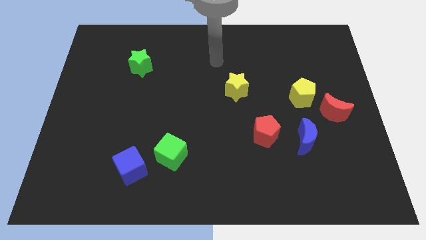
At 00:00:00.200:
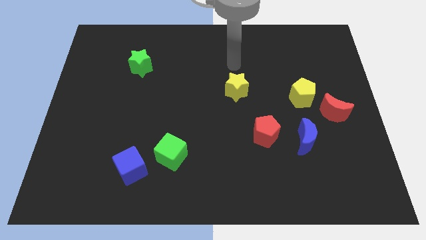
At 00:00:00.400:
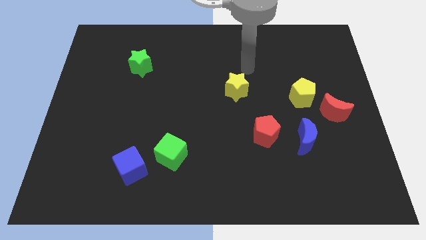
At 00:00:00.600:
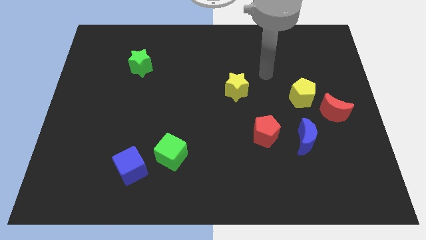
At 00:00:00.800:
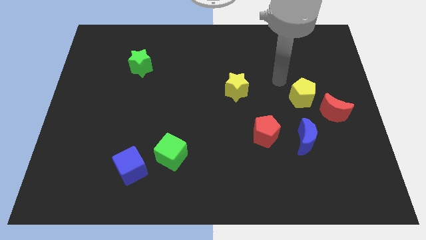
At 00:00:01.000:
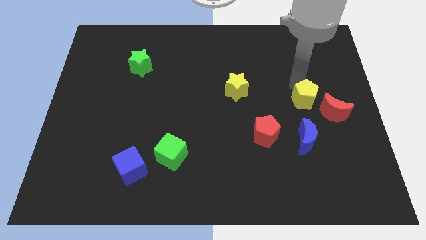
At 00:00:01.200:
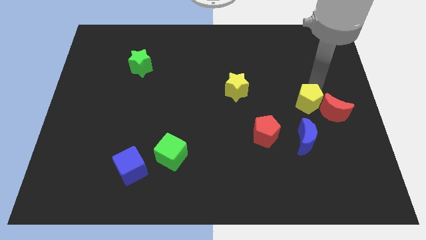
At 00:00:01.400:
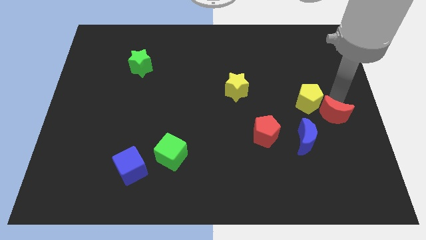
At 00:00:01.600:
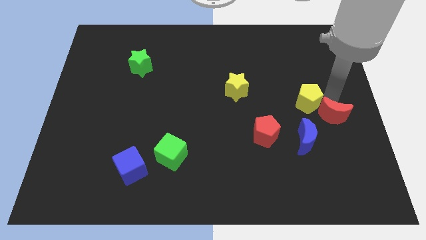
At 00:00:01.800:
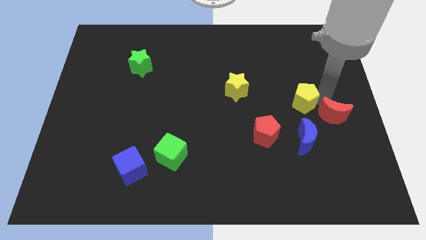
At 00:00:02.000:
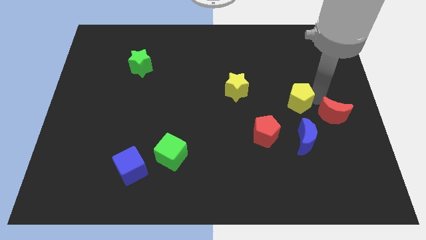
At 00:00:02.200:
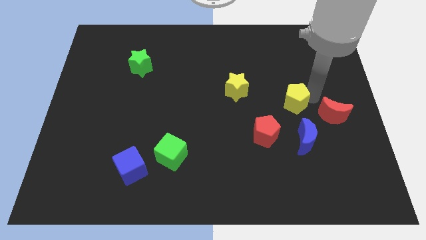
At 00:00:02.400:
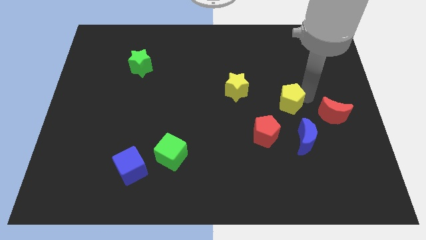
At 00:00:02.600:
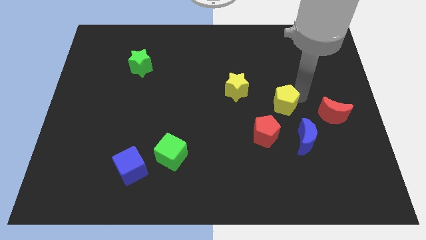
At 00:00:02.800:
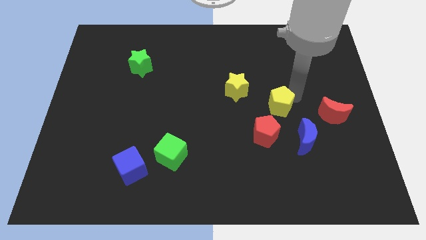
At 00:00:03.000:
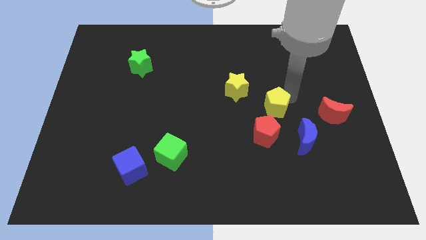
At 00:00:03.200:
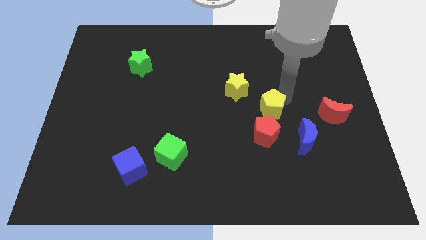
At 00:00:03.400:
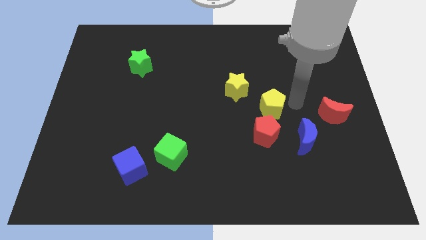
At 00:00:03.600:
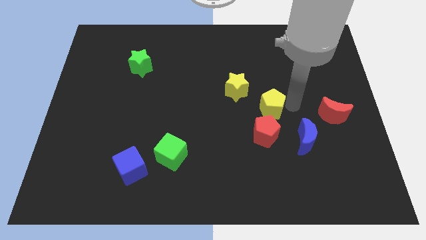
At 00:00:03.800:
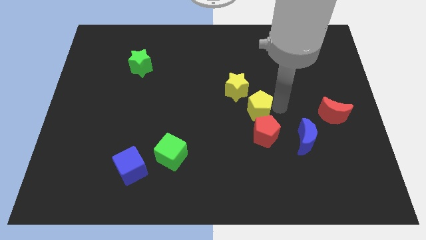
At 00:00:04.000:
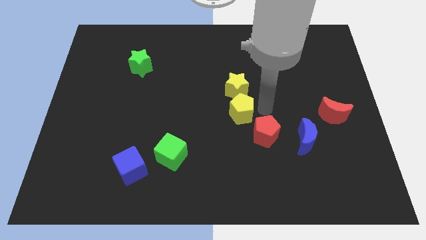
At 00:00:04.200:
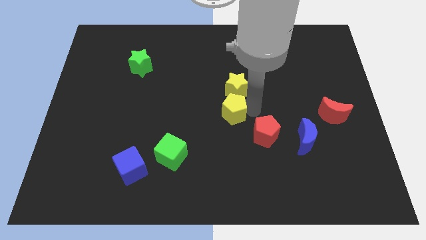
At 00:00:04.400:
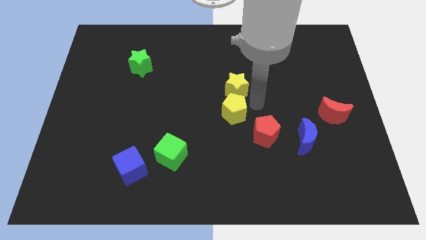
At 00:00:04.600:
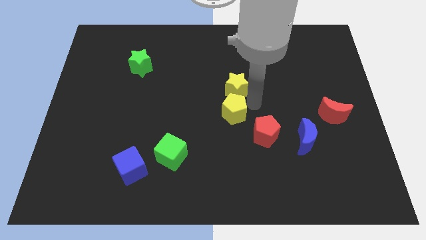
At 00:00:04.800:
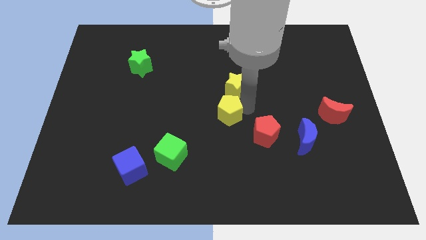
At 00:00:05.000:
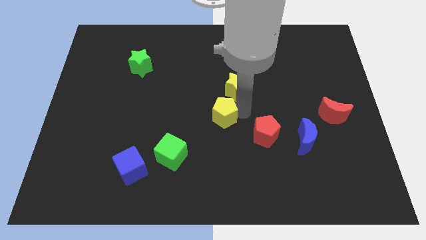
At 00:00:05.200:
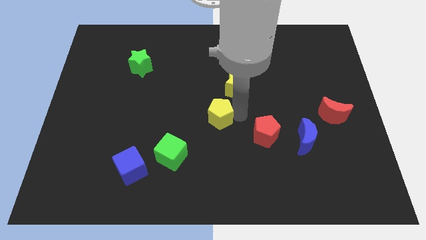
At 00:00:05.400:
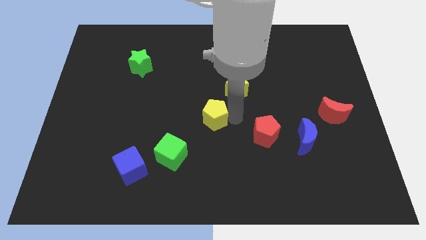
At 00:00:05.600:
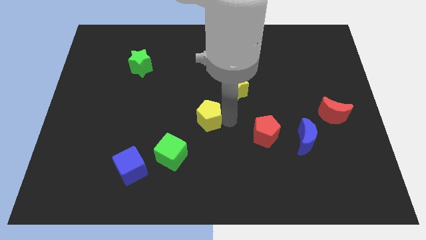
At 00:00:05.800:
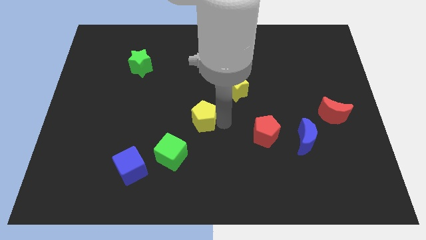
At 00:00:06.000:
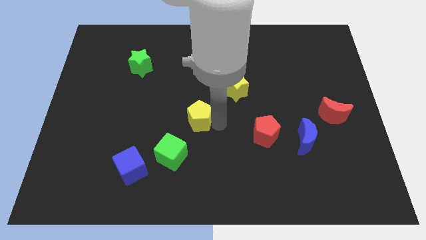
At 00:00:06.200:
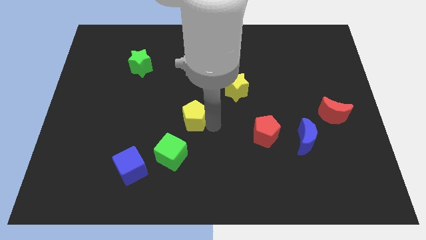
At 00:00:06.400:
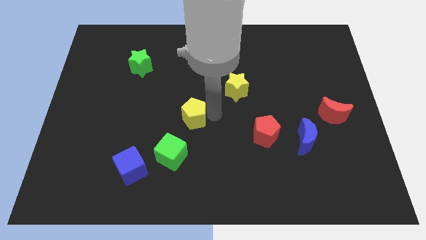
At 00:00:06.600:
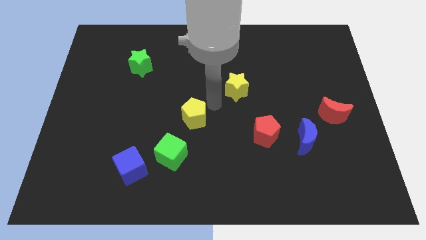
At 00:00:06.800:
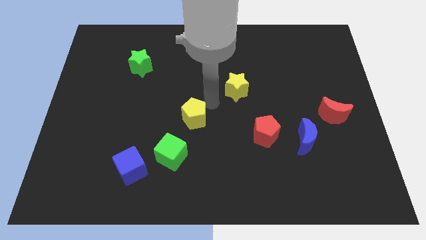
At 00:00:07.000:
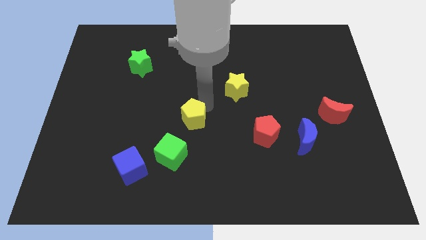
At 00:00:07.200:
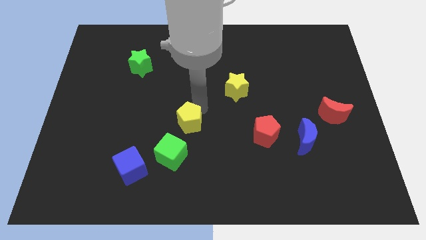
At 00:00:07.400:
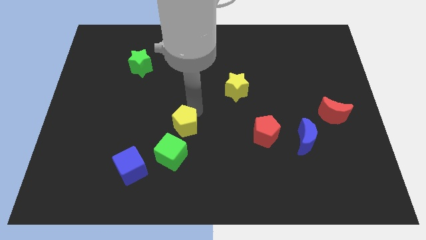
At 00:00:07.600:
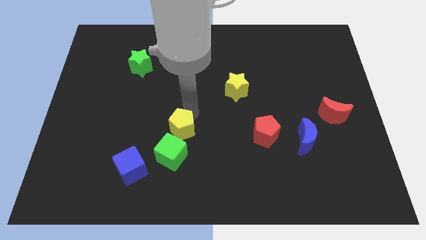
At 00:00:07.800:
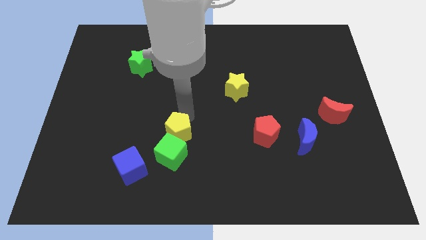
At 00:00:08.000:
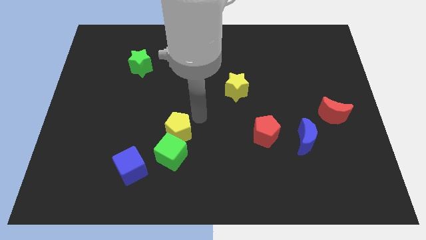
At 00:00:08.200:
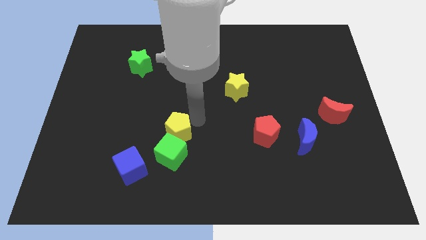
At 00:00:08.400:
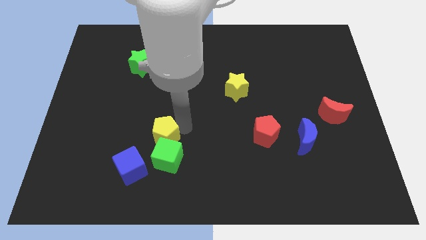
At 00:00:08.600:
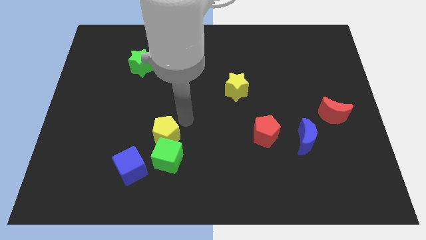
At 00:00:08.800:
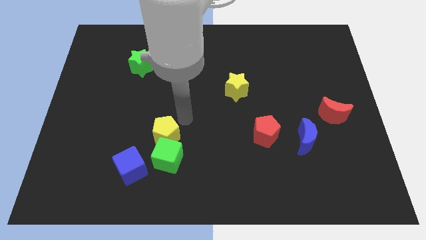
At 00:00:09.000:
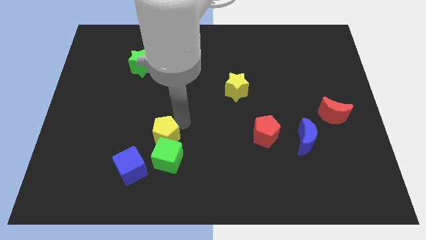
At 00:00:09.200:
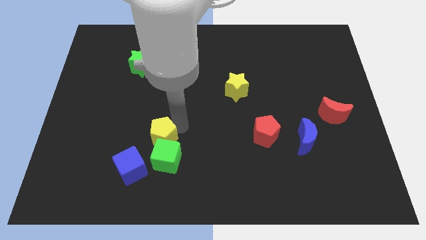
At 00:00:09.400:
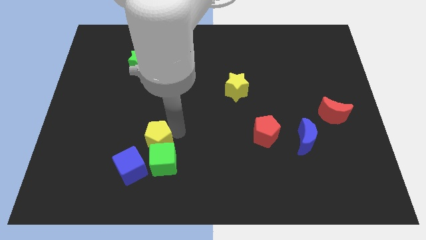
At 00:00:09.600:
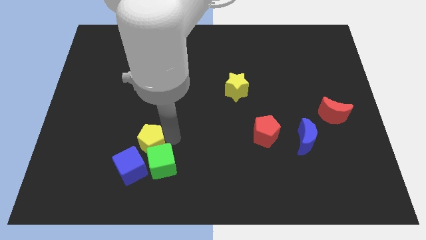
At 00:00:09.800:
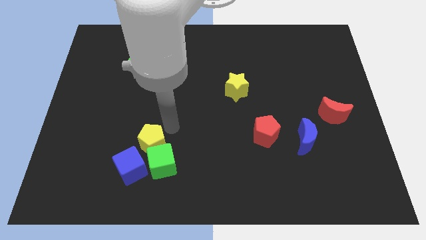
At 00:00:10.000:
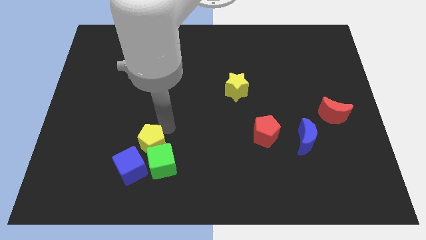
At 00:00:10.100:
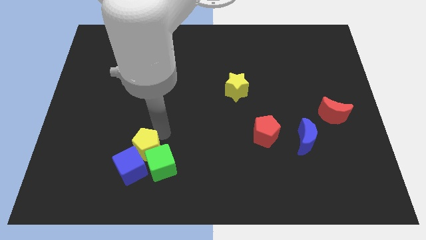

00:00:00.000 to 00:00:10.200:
put the yellow pentagon next to the blue cube

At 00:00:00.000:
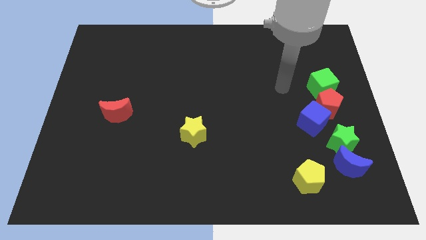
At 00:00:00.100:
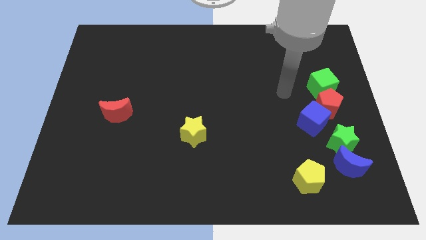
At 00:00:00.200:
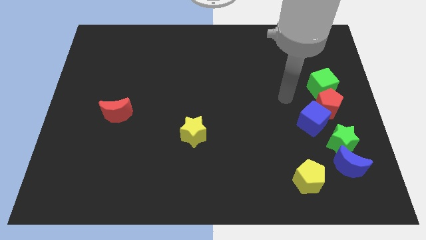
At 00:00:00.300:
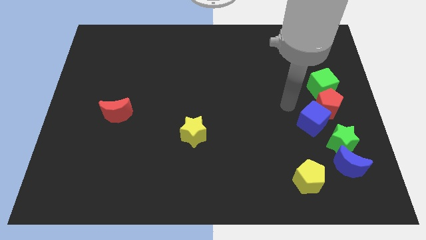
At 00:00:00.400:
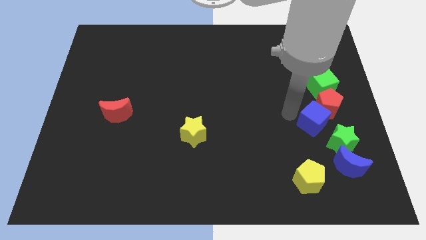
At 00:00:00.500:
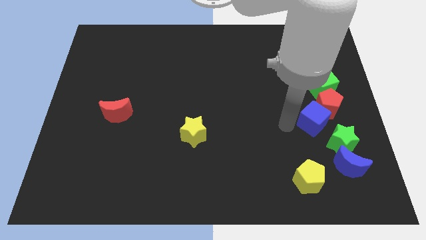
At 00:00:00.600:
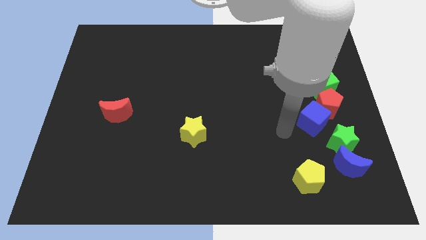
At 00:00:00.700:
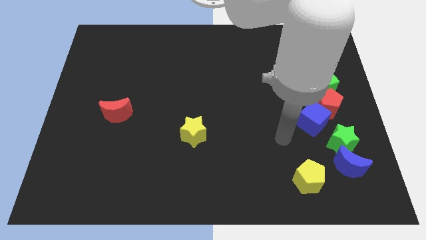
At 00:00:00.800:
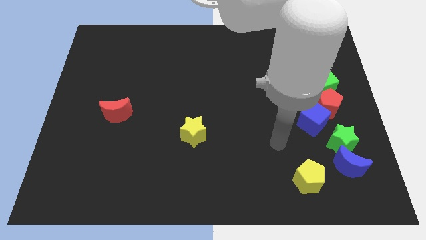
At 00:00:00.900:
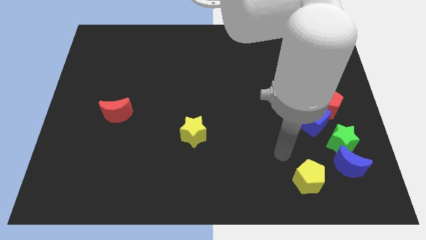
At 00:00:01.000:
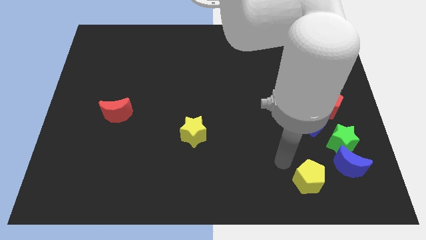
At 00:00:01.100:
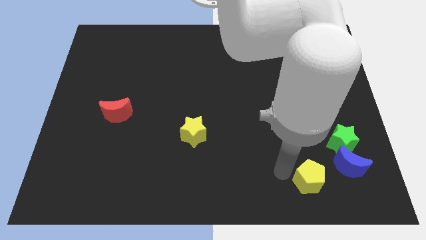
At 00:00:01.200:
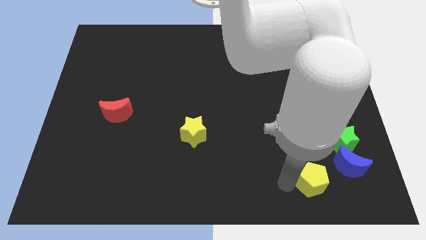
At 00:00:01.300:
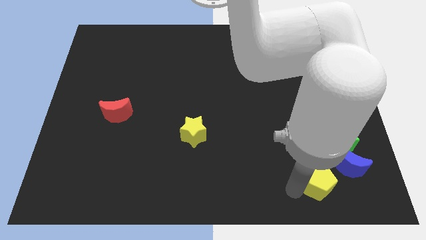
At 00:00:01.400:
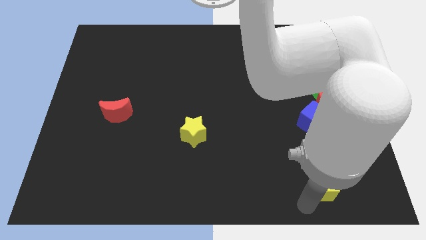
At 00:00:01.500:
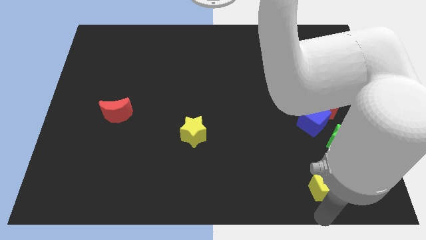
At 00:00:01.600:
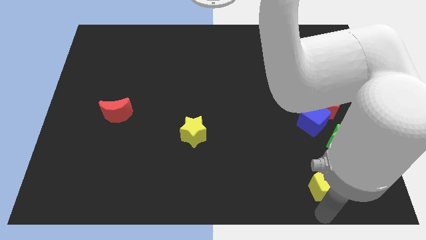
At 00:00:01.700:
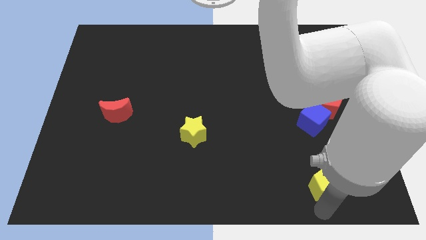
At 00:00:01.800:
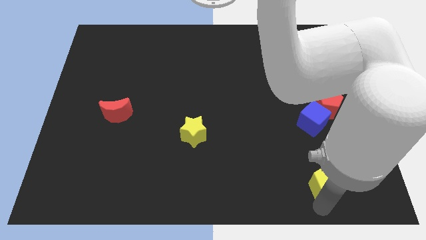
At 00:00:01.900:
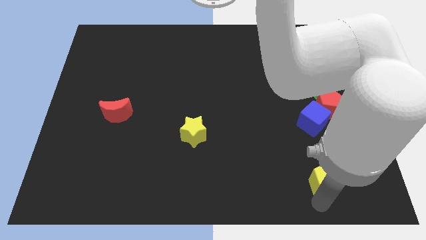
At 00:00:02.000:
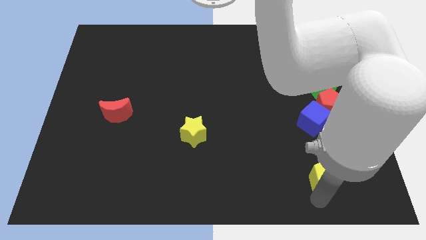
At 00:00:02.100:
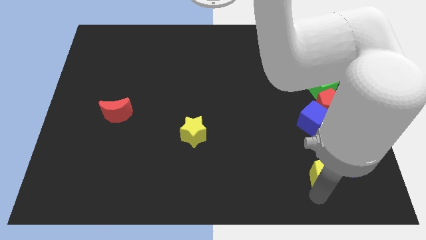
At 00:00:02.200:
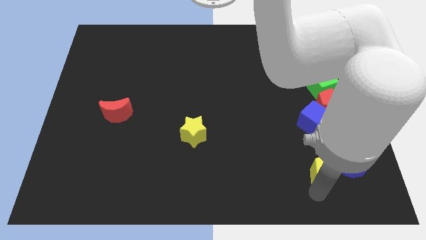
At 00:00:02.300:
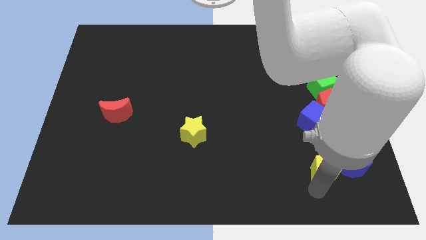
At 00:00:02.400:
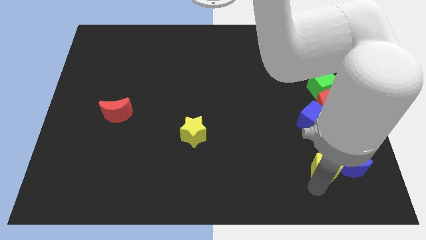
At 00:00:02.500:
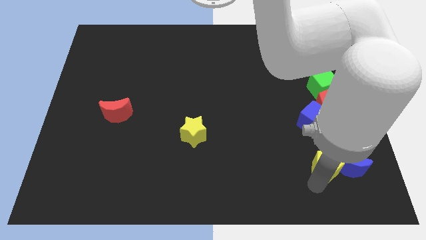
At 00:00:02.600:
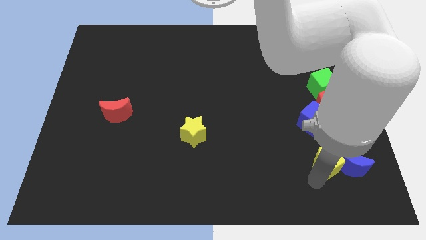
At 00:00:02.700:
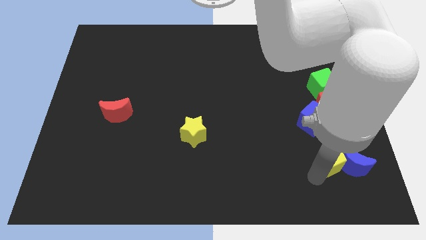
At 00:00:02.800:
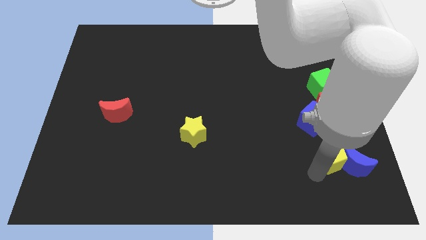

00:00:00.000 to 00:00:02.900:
push the yellow pentagon close to the green star
